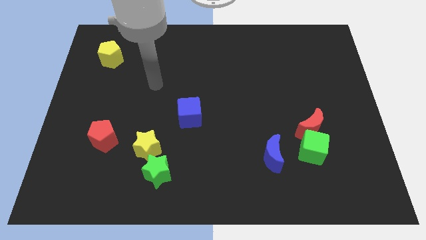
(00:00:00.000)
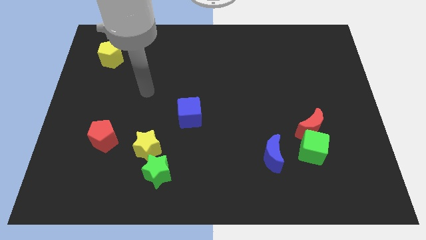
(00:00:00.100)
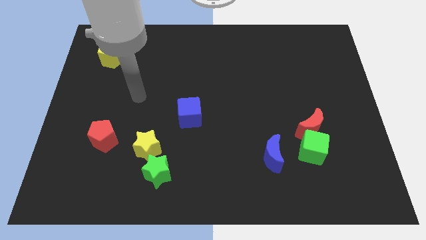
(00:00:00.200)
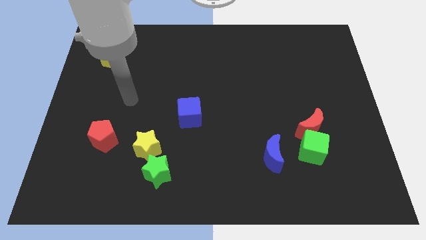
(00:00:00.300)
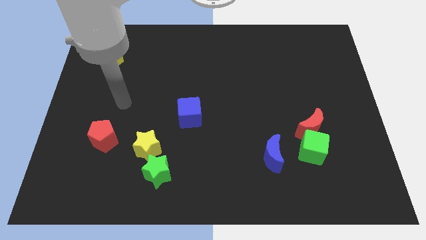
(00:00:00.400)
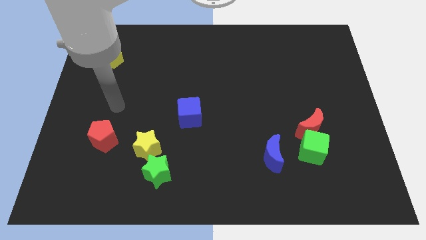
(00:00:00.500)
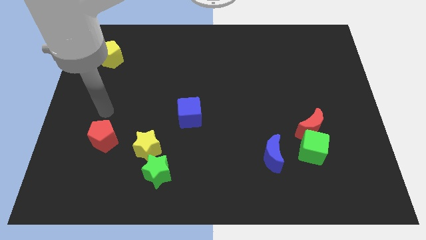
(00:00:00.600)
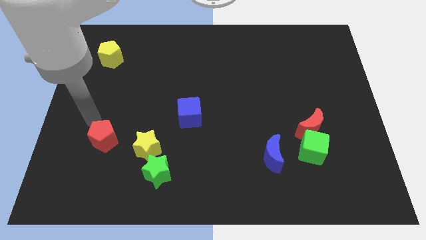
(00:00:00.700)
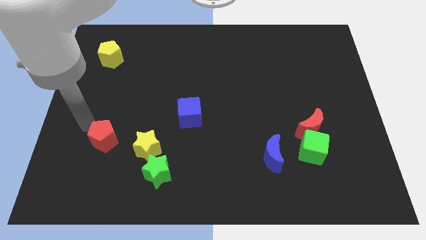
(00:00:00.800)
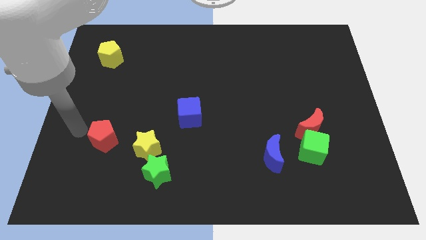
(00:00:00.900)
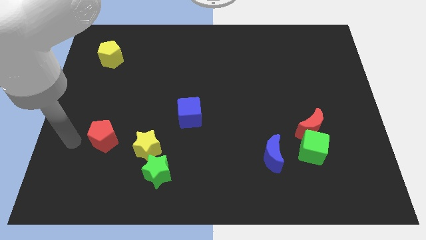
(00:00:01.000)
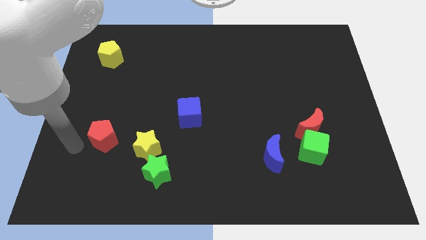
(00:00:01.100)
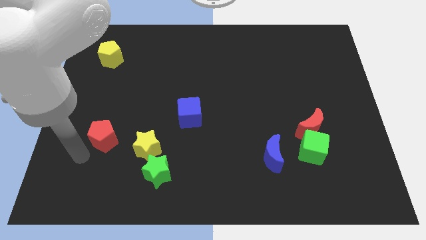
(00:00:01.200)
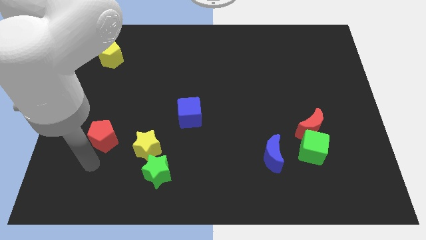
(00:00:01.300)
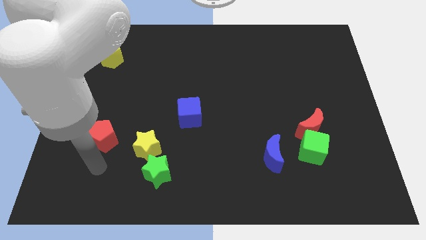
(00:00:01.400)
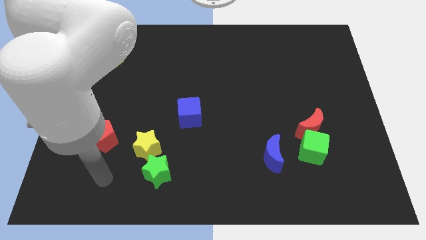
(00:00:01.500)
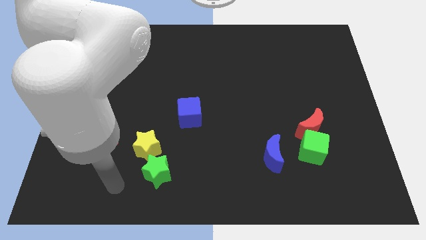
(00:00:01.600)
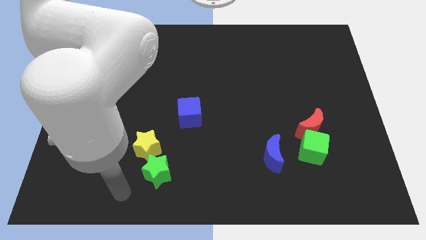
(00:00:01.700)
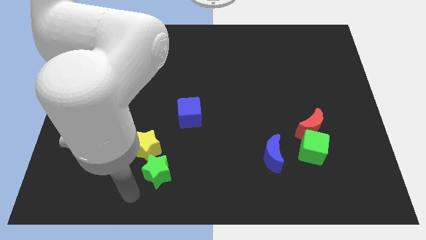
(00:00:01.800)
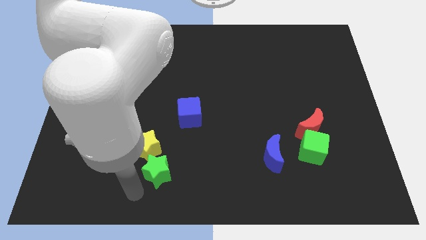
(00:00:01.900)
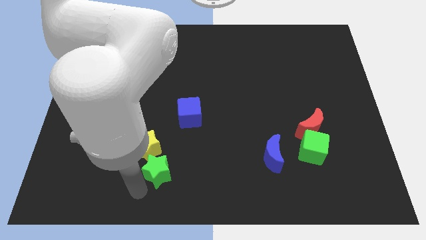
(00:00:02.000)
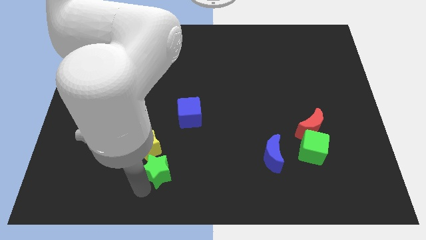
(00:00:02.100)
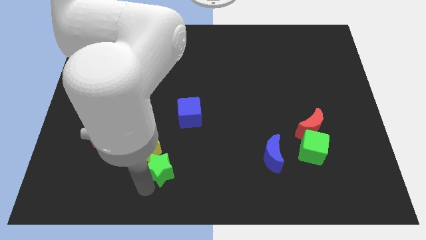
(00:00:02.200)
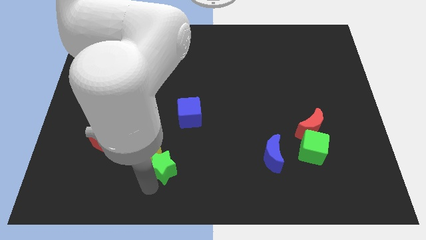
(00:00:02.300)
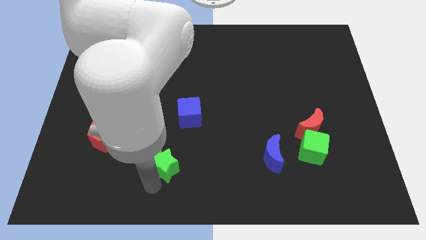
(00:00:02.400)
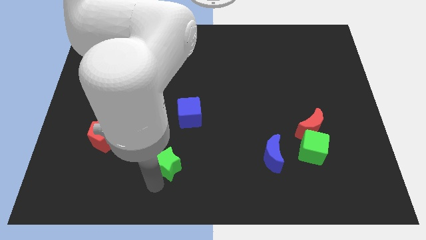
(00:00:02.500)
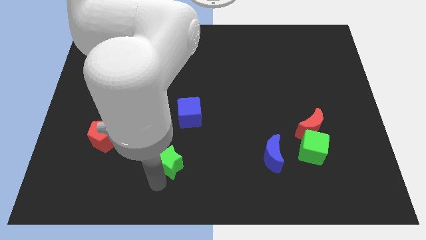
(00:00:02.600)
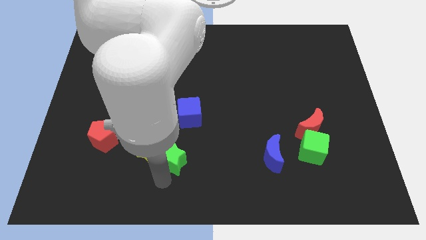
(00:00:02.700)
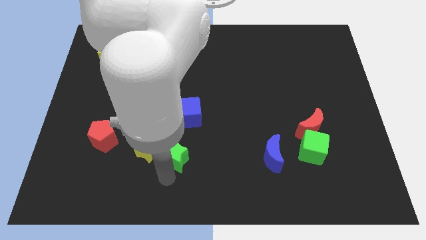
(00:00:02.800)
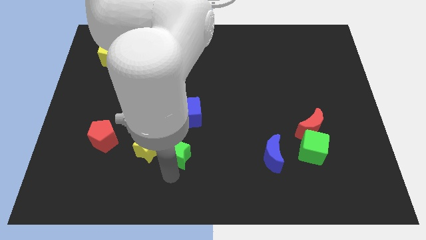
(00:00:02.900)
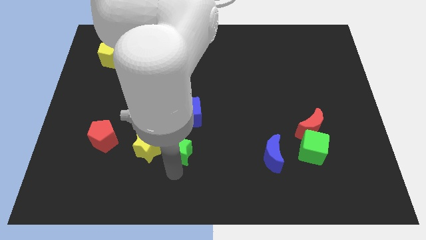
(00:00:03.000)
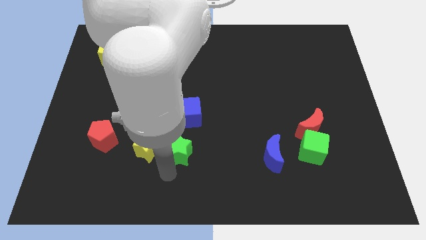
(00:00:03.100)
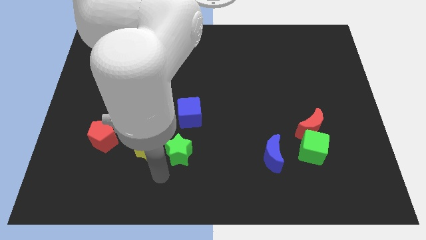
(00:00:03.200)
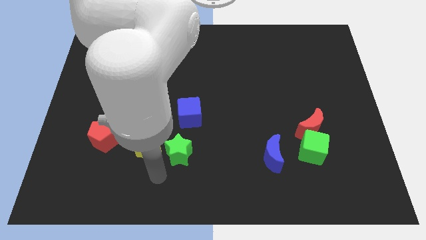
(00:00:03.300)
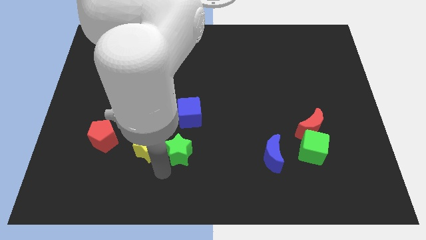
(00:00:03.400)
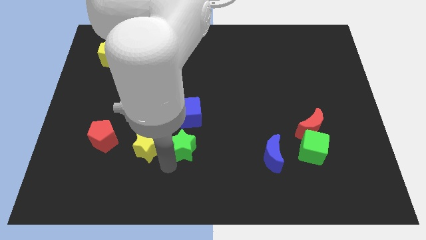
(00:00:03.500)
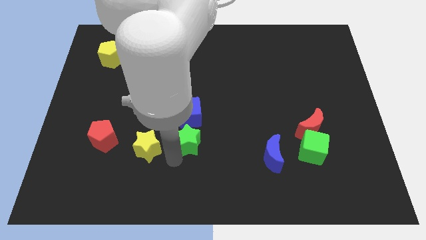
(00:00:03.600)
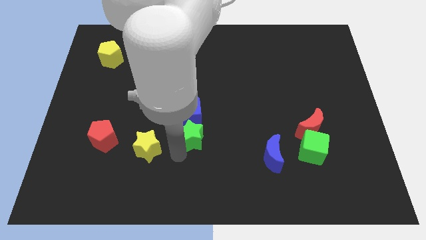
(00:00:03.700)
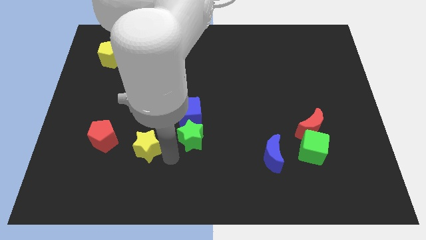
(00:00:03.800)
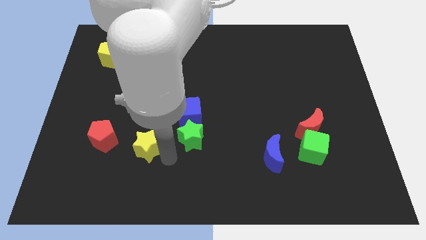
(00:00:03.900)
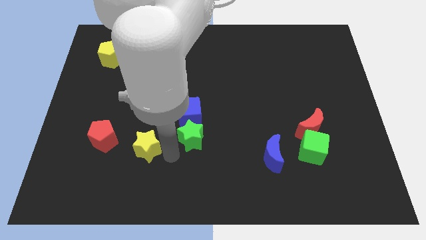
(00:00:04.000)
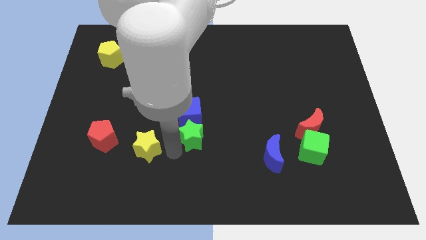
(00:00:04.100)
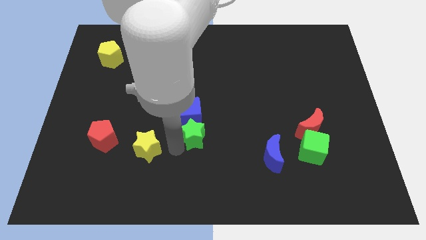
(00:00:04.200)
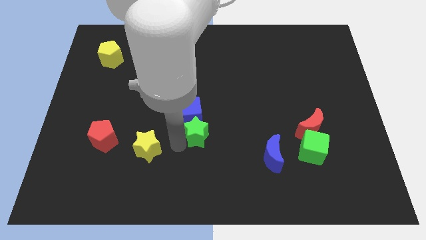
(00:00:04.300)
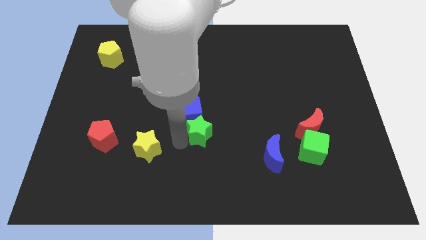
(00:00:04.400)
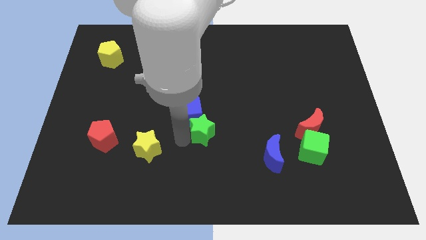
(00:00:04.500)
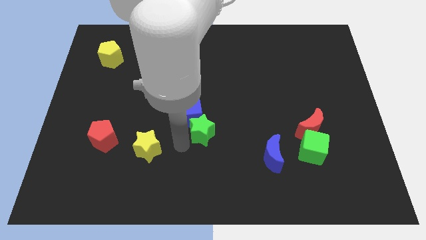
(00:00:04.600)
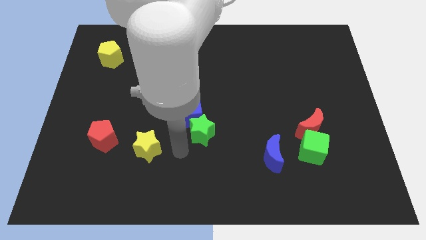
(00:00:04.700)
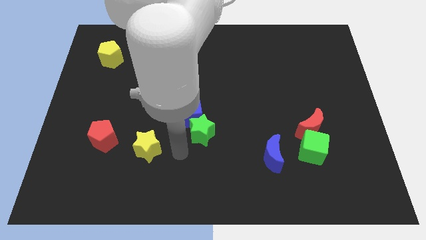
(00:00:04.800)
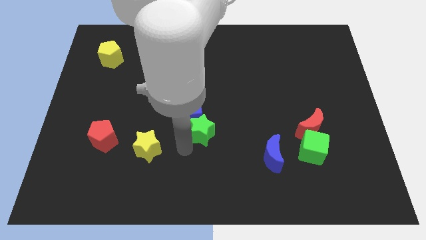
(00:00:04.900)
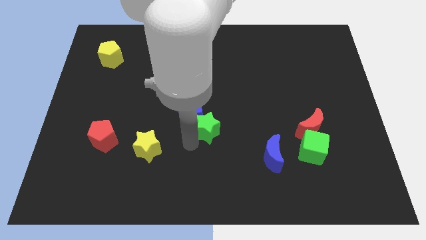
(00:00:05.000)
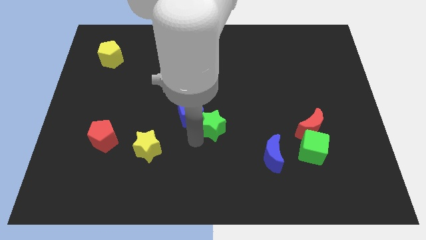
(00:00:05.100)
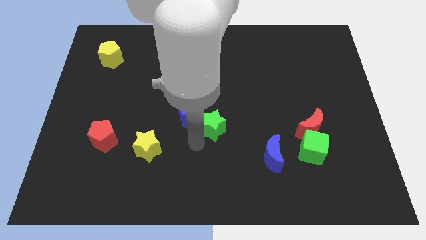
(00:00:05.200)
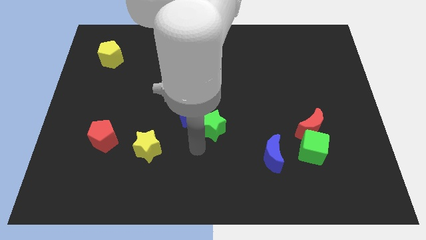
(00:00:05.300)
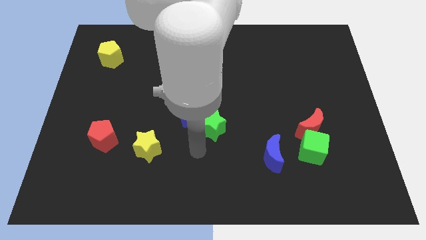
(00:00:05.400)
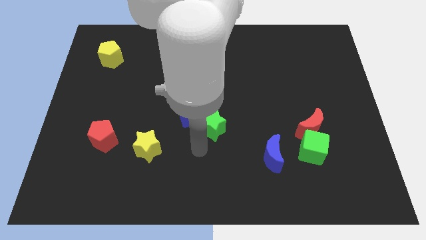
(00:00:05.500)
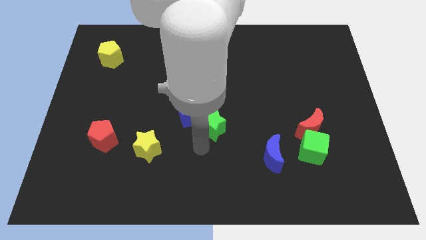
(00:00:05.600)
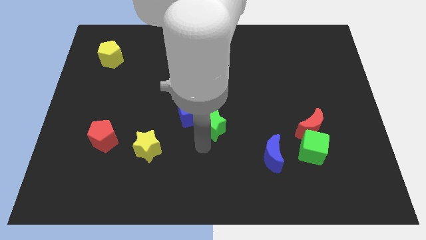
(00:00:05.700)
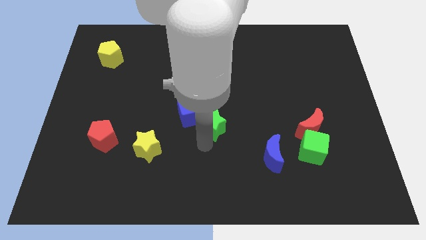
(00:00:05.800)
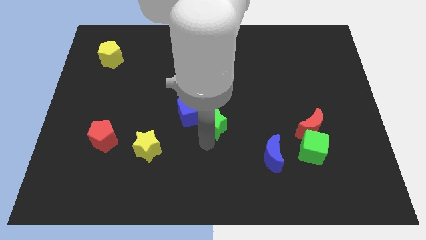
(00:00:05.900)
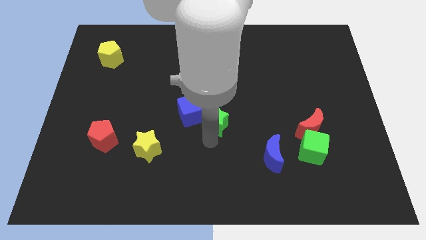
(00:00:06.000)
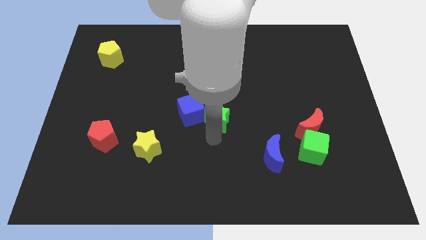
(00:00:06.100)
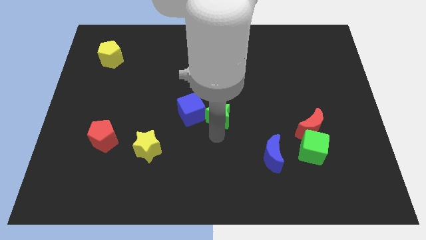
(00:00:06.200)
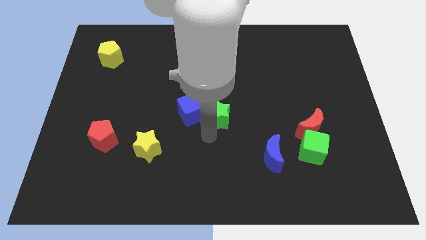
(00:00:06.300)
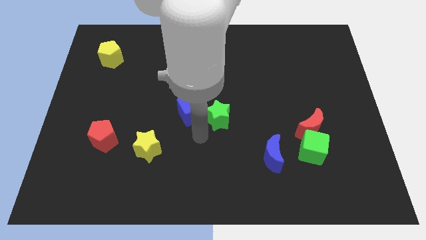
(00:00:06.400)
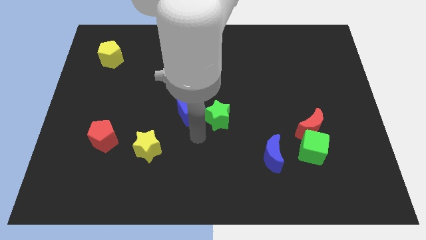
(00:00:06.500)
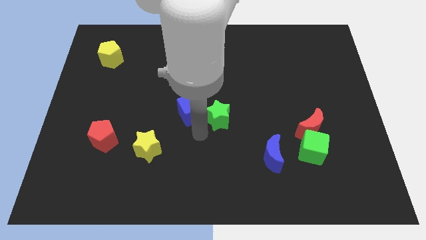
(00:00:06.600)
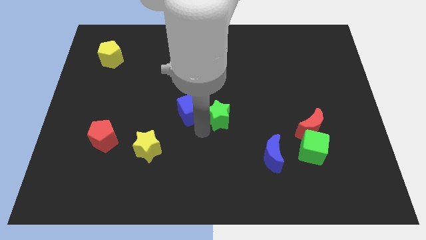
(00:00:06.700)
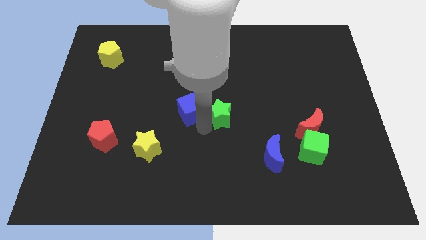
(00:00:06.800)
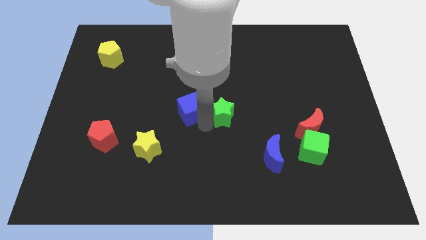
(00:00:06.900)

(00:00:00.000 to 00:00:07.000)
push the green star diagonally up and right

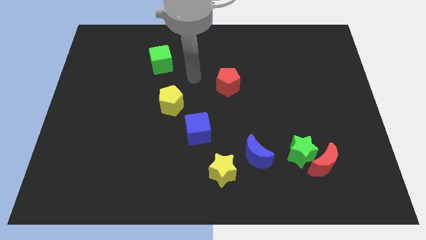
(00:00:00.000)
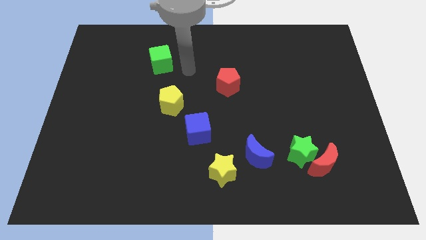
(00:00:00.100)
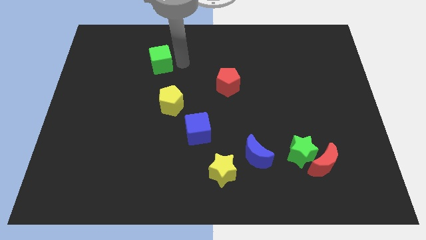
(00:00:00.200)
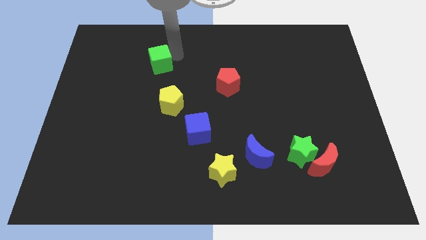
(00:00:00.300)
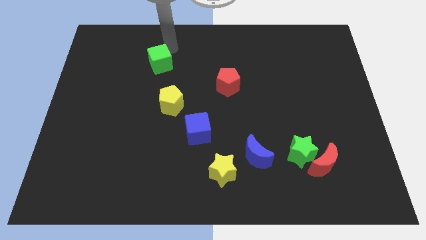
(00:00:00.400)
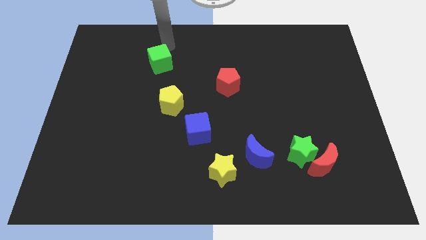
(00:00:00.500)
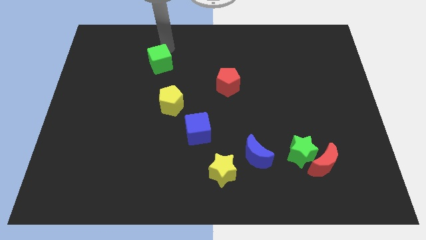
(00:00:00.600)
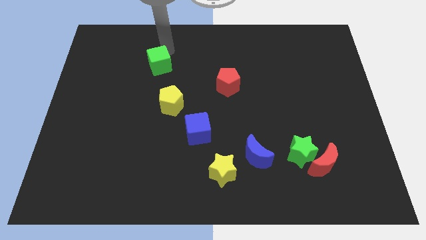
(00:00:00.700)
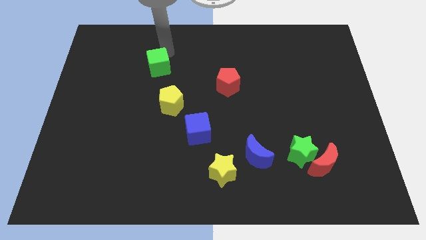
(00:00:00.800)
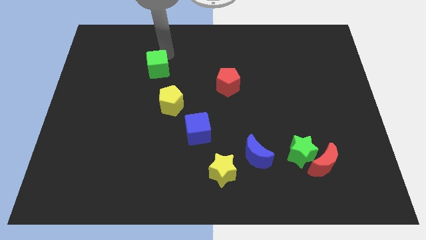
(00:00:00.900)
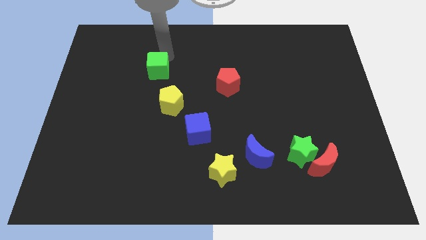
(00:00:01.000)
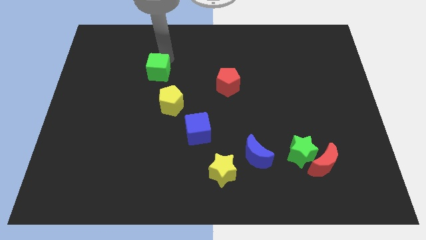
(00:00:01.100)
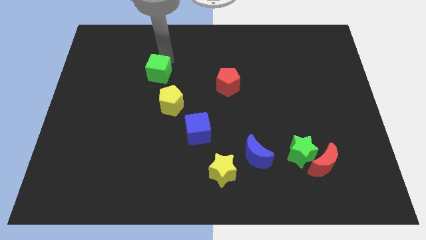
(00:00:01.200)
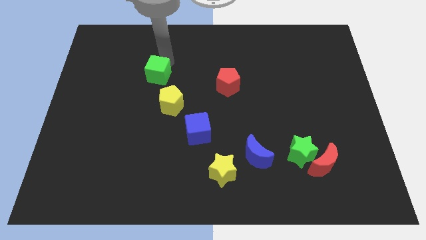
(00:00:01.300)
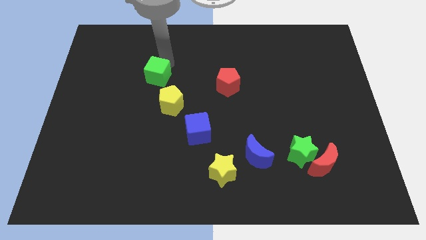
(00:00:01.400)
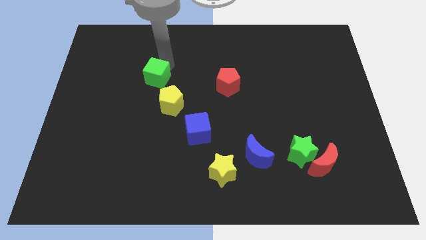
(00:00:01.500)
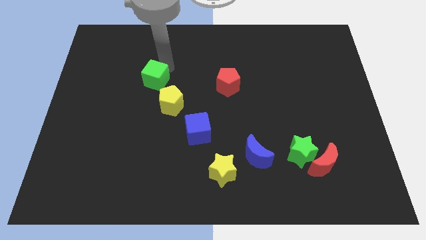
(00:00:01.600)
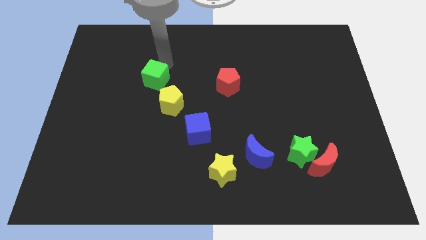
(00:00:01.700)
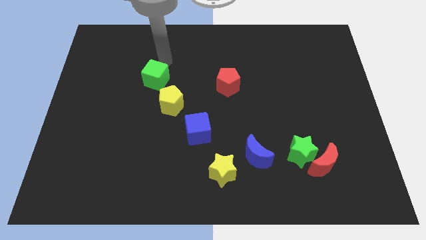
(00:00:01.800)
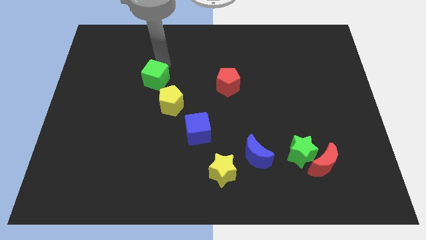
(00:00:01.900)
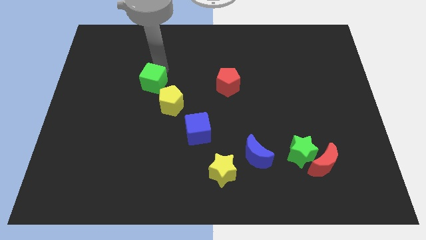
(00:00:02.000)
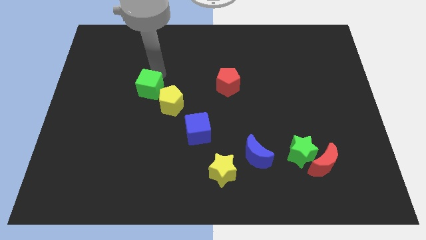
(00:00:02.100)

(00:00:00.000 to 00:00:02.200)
slightly move the green cube downwards
